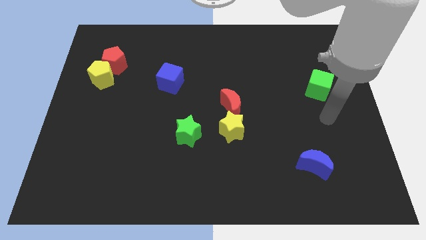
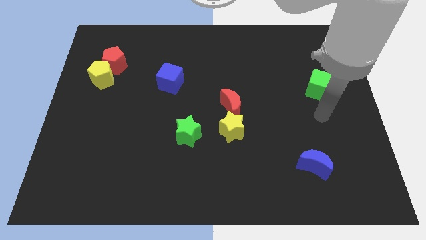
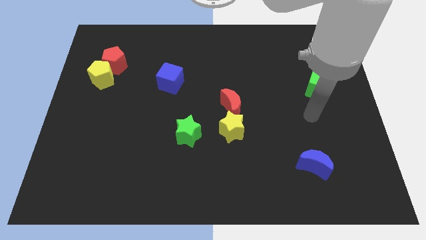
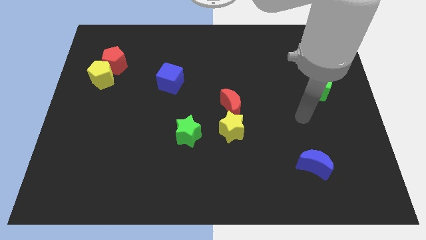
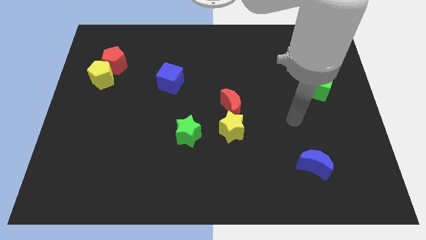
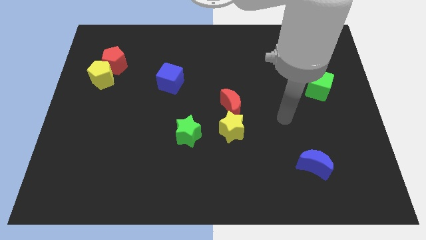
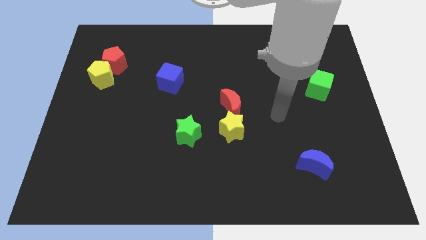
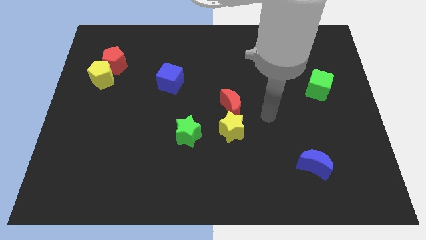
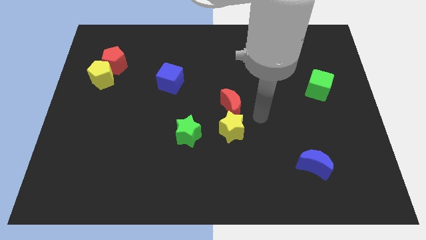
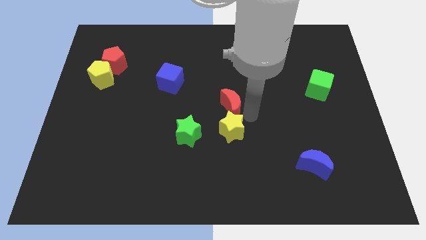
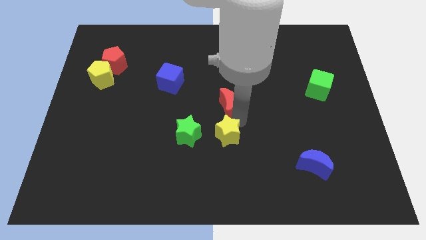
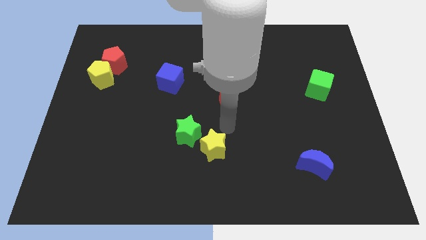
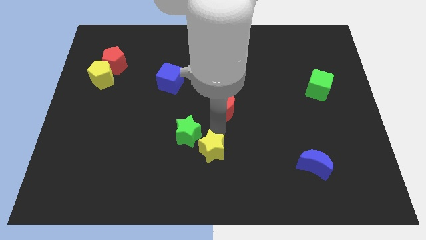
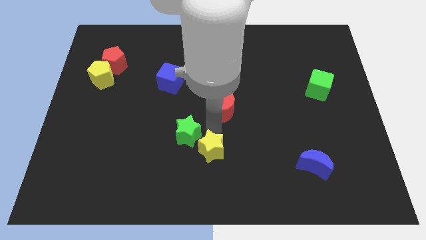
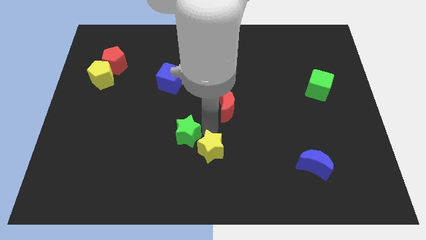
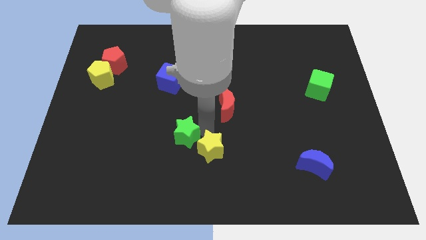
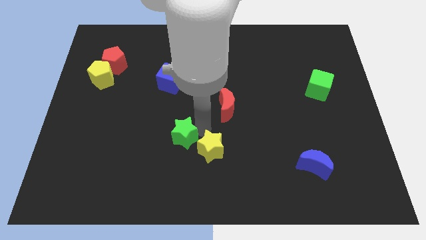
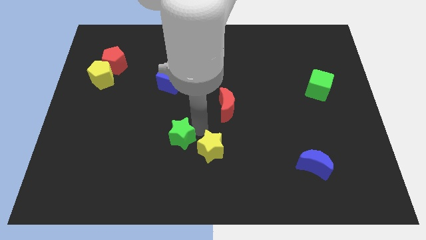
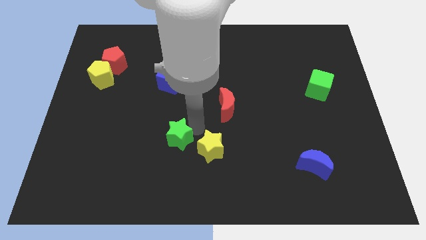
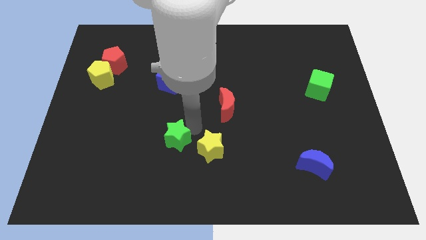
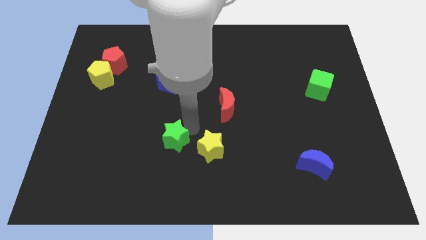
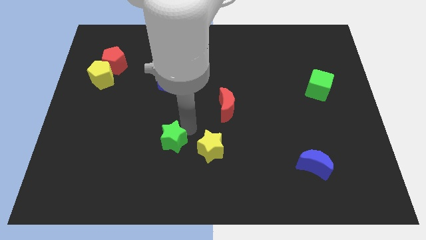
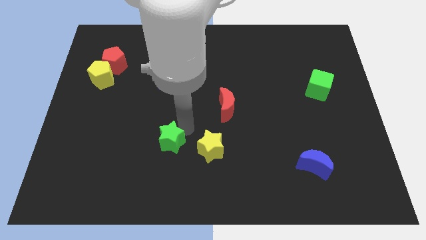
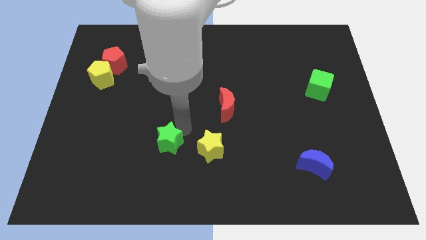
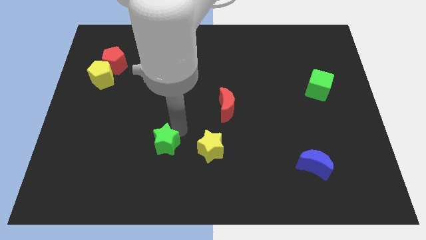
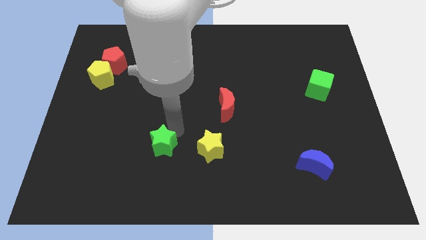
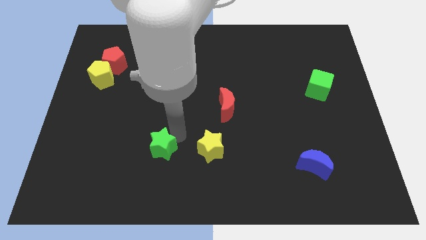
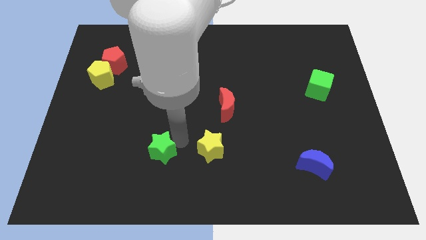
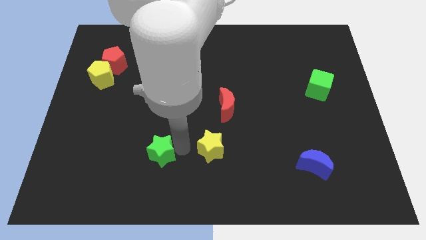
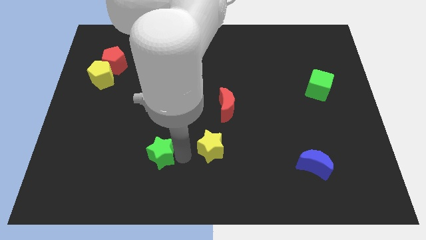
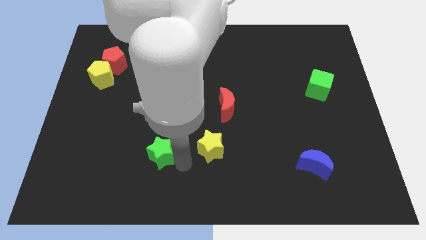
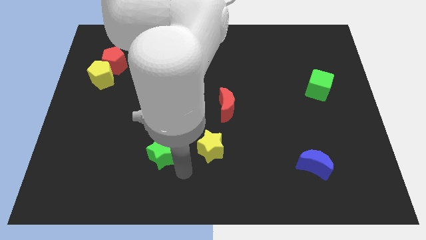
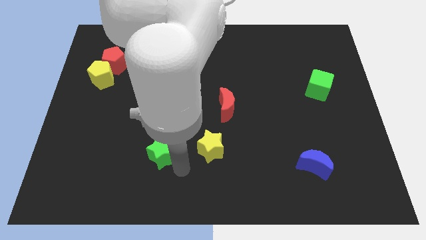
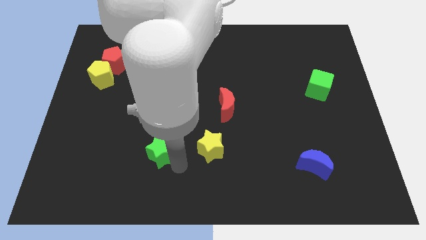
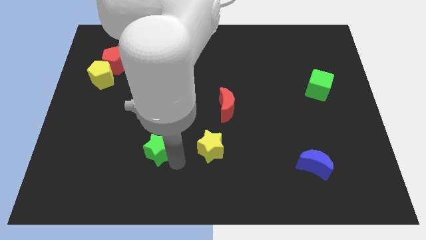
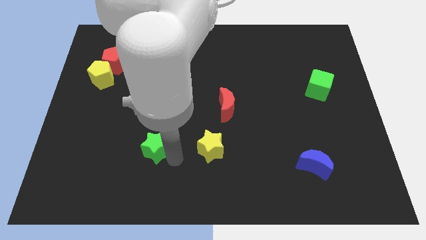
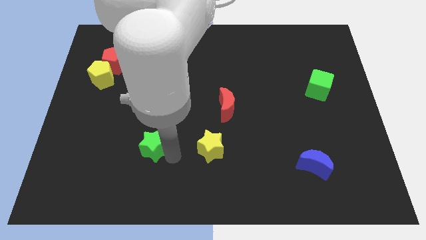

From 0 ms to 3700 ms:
slightly move the green star left

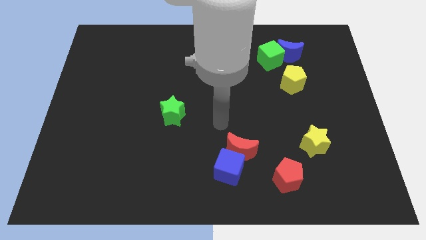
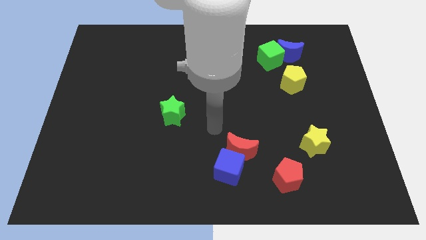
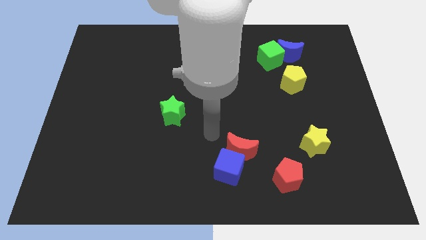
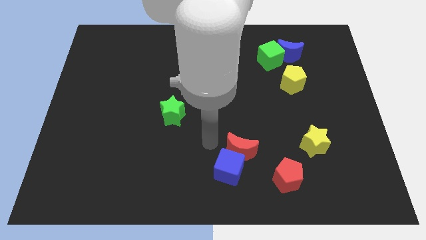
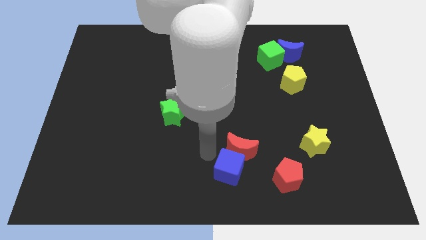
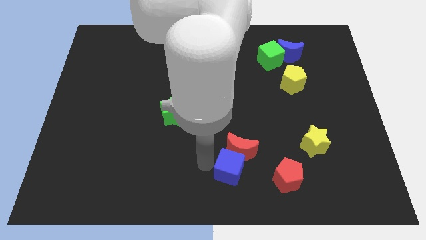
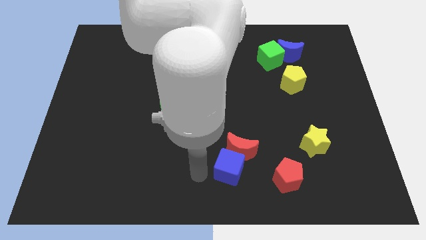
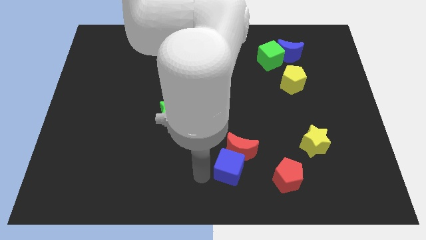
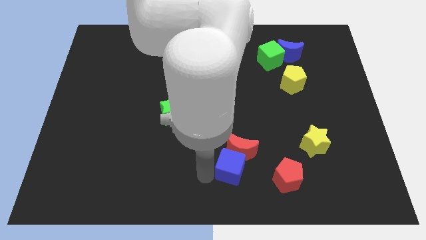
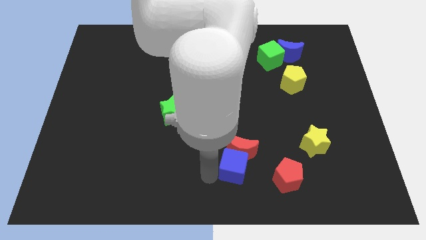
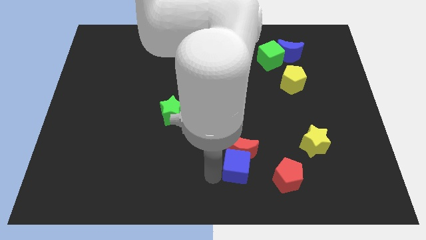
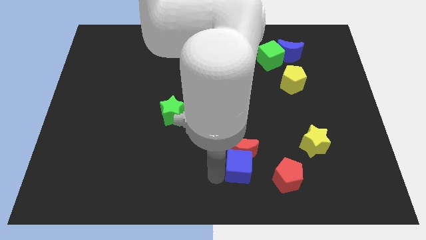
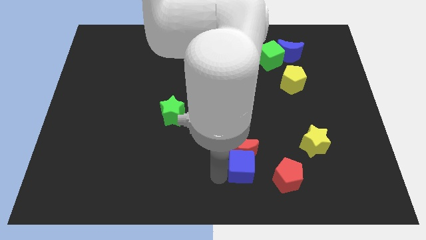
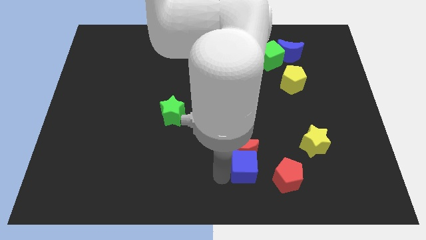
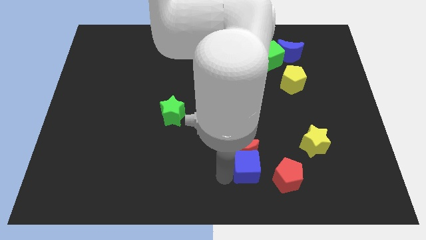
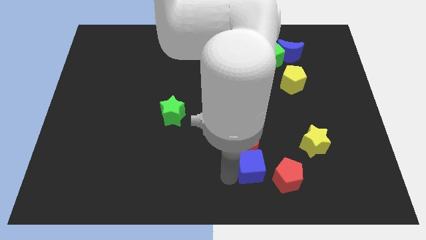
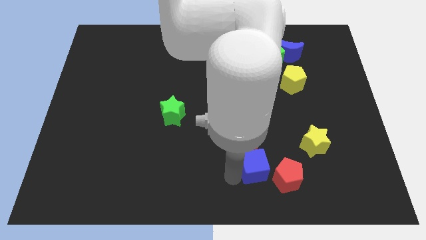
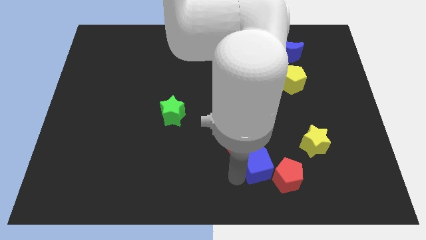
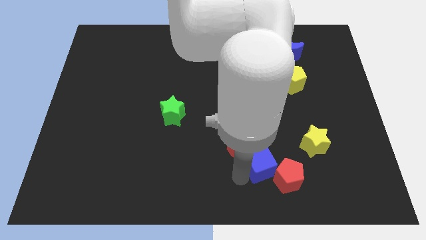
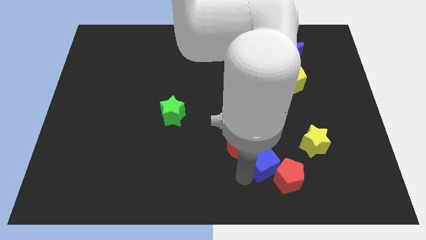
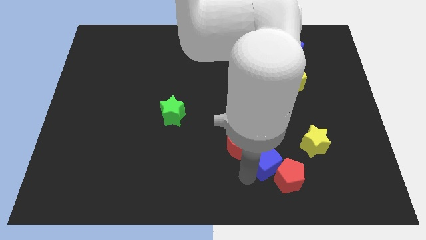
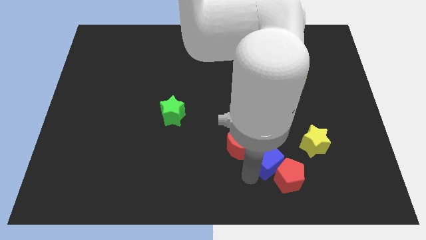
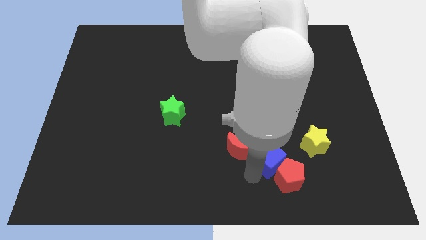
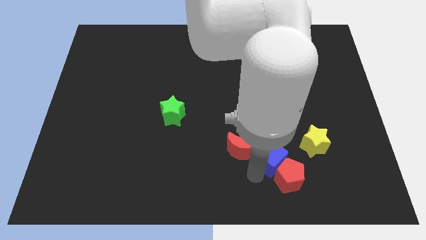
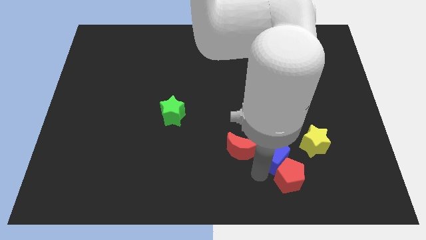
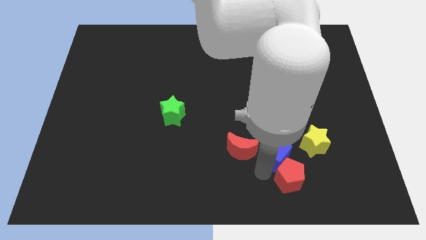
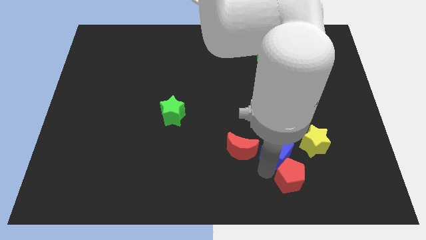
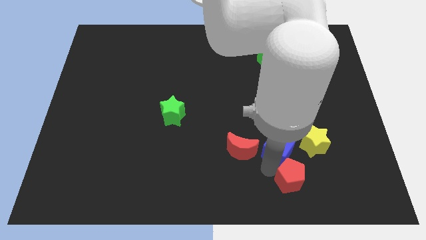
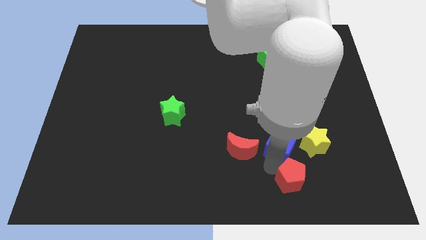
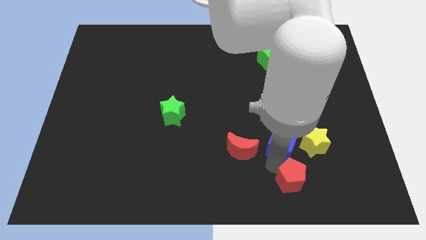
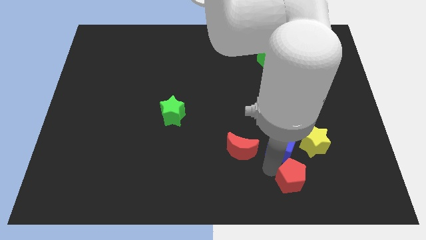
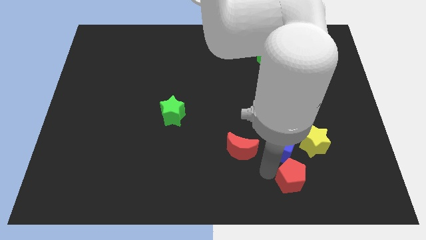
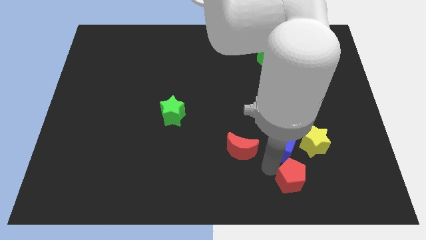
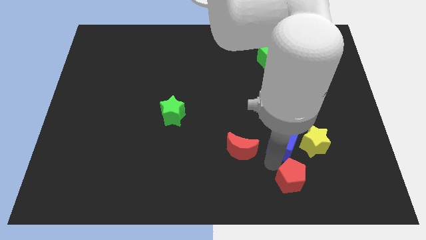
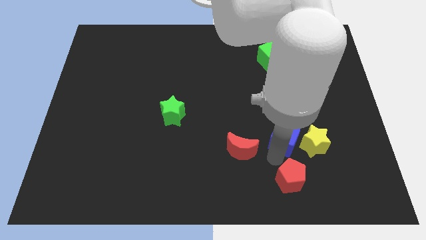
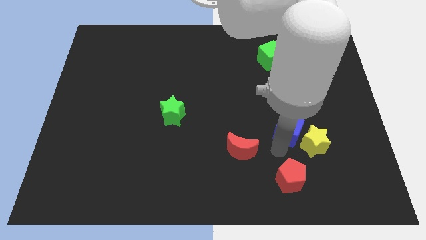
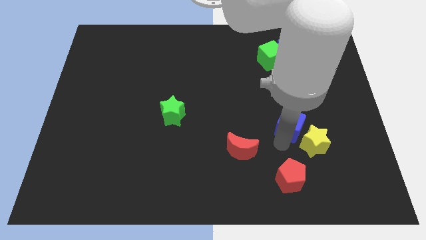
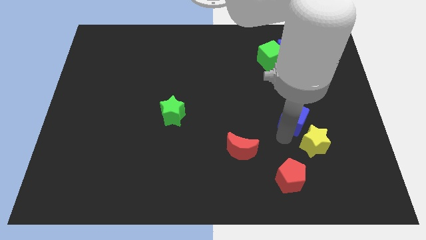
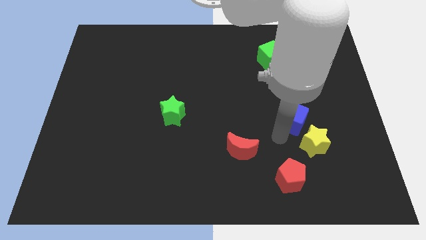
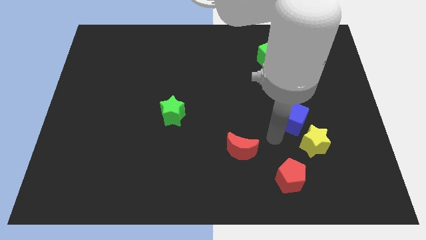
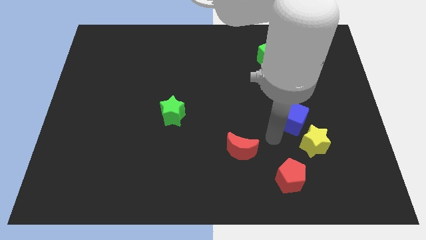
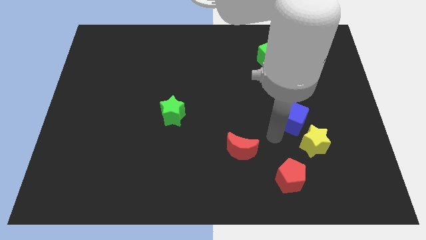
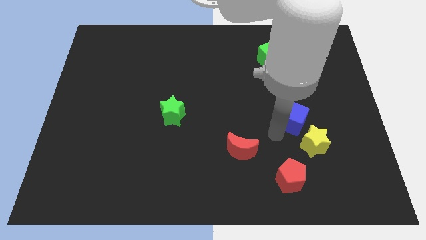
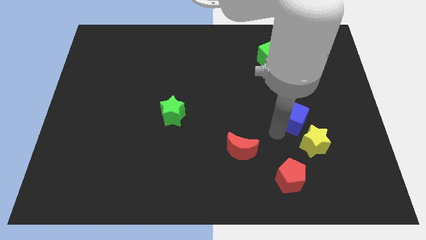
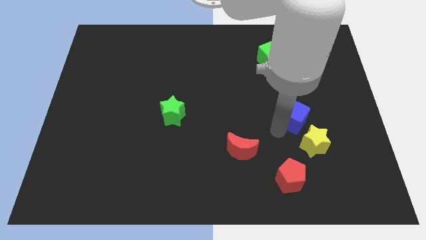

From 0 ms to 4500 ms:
push the blue cube diagonally up and right
